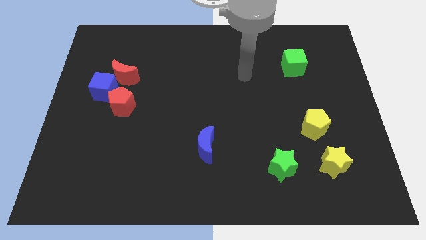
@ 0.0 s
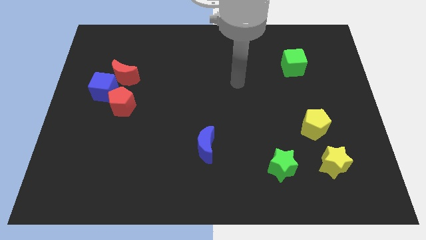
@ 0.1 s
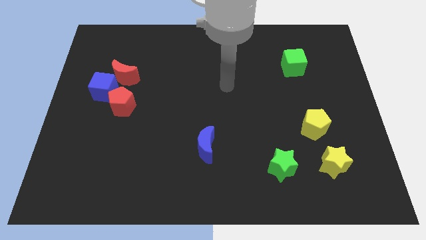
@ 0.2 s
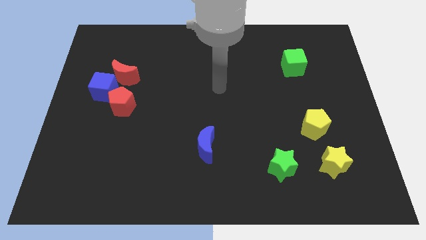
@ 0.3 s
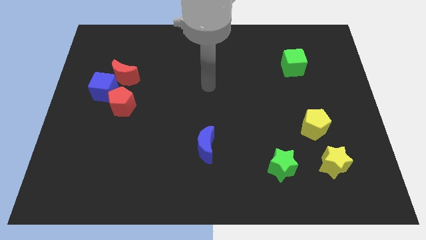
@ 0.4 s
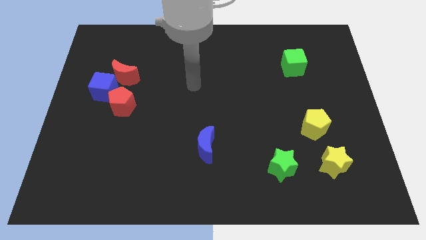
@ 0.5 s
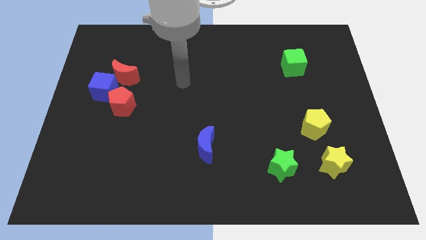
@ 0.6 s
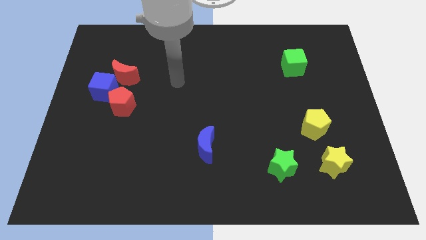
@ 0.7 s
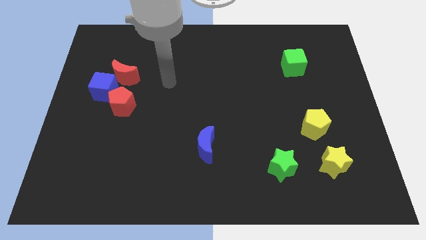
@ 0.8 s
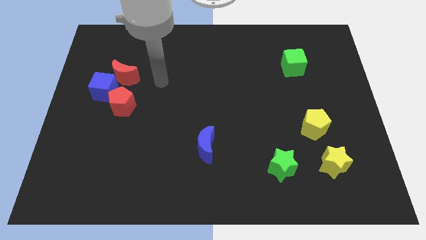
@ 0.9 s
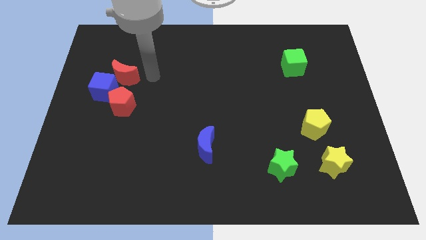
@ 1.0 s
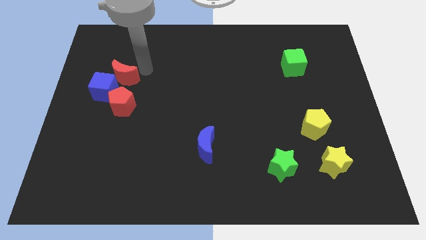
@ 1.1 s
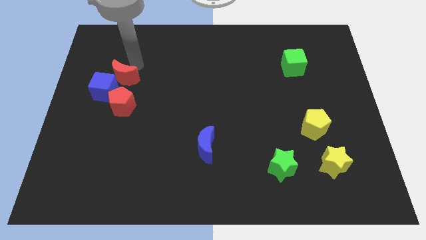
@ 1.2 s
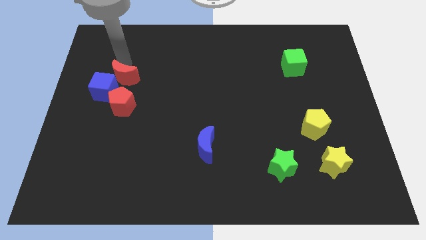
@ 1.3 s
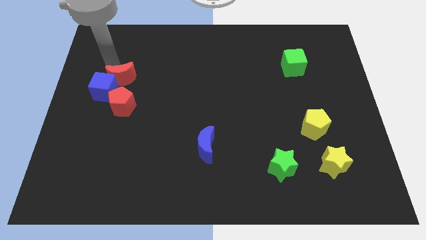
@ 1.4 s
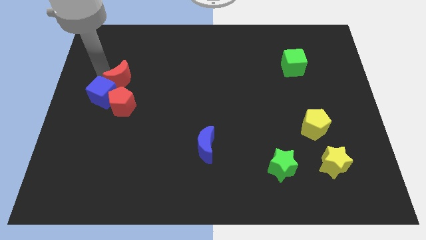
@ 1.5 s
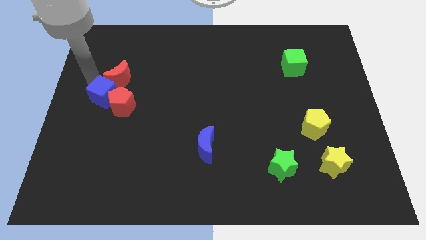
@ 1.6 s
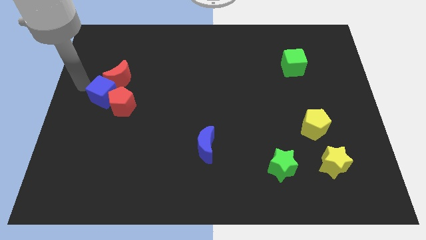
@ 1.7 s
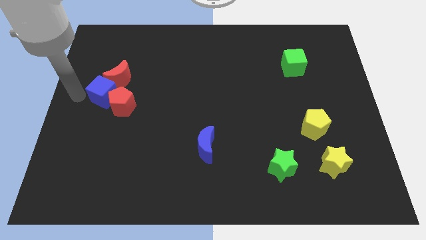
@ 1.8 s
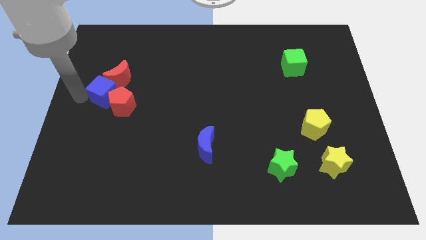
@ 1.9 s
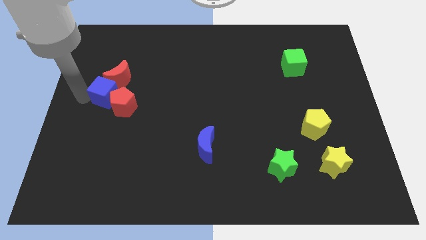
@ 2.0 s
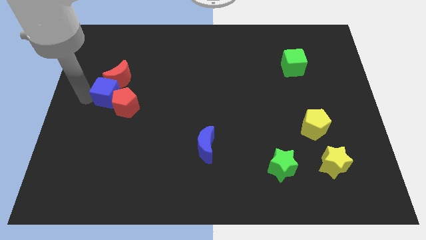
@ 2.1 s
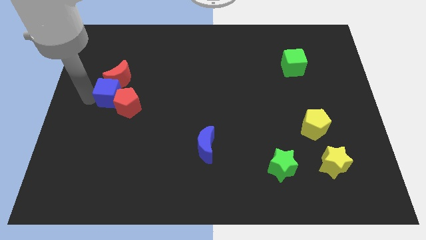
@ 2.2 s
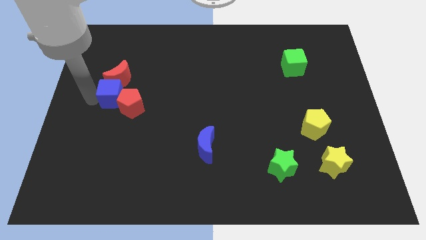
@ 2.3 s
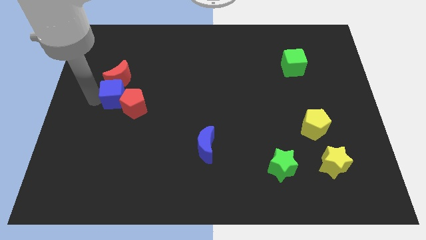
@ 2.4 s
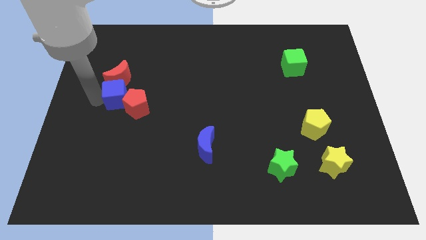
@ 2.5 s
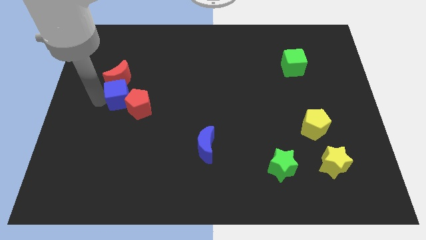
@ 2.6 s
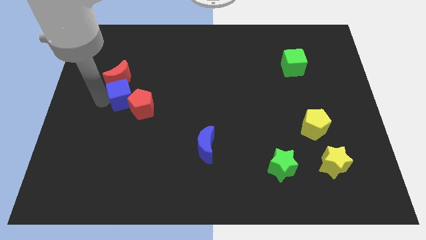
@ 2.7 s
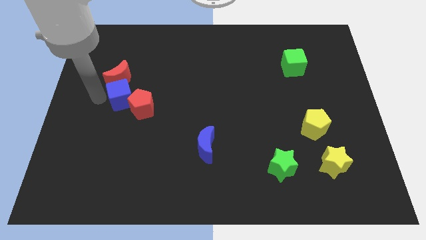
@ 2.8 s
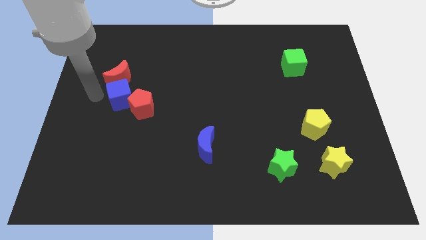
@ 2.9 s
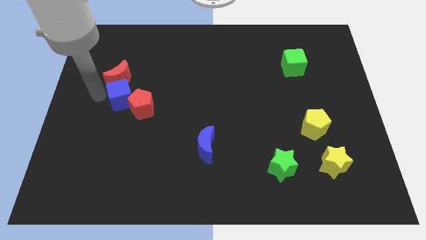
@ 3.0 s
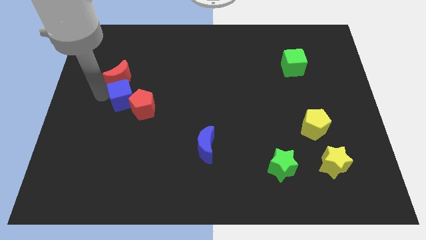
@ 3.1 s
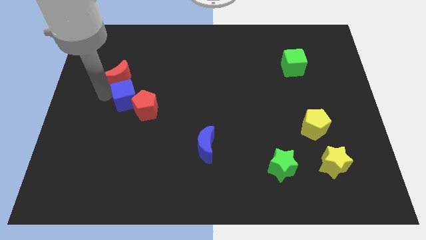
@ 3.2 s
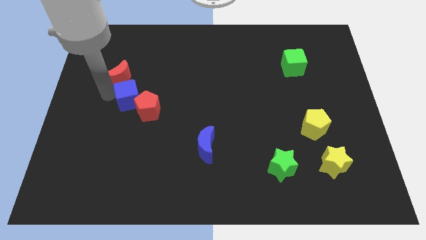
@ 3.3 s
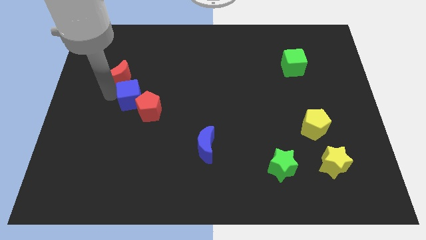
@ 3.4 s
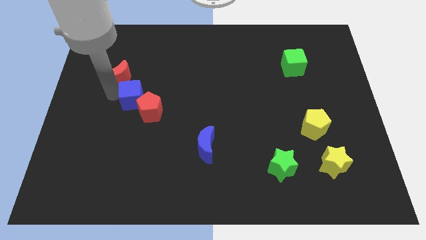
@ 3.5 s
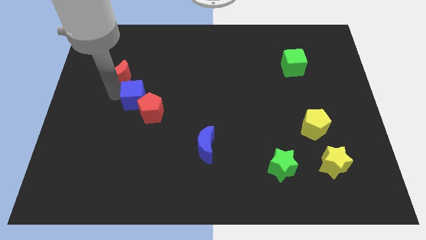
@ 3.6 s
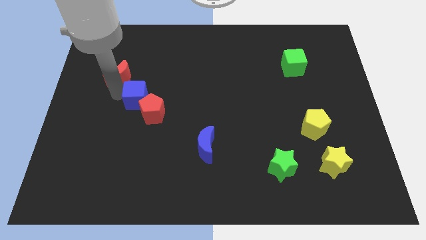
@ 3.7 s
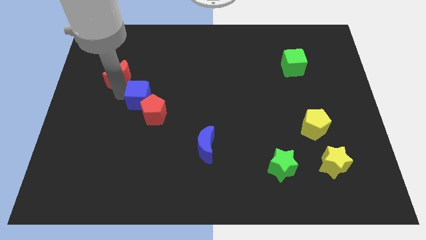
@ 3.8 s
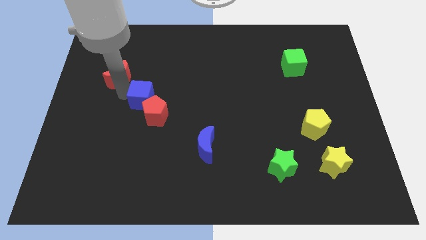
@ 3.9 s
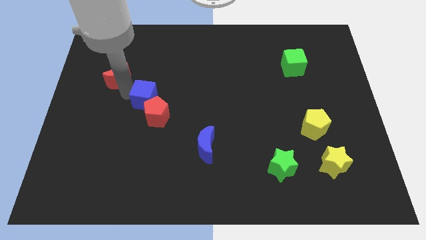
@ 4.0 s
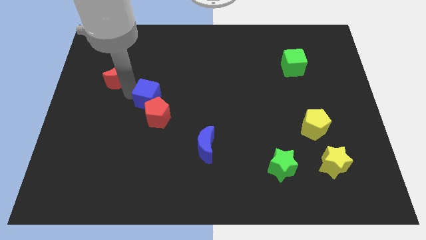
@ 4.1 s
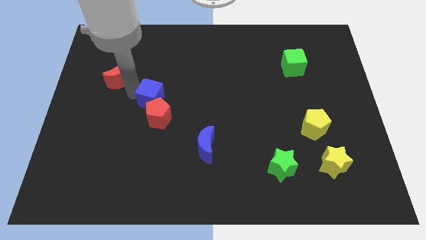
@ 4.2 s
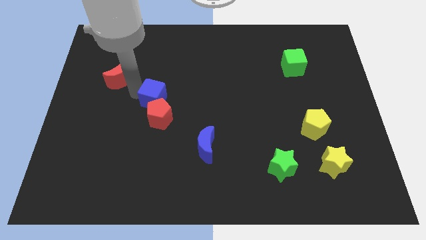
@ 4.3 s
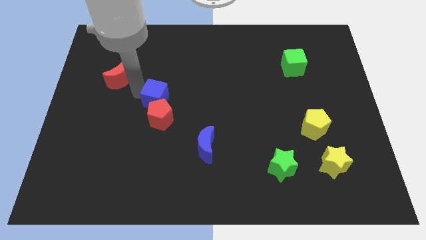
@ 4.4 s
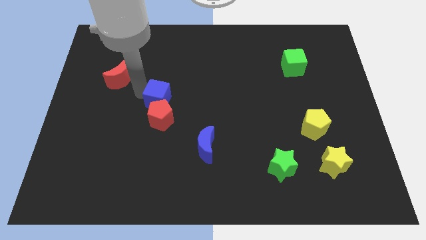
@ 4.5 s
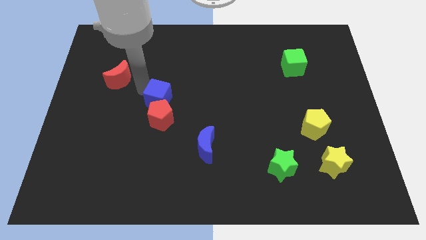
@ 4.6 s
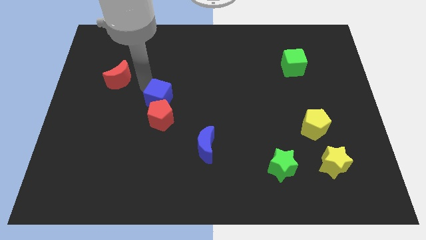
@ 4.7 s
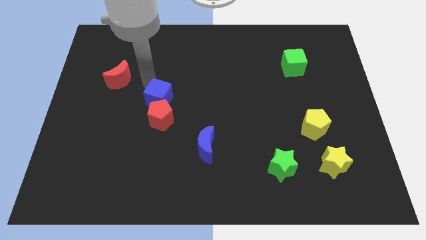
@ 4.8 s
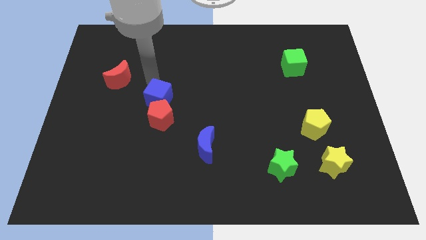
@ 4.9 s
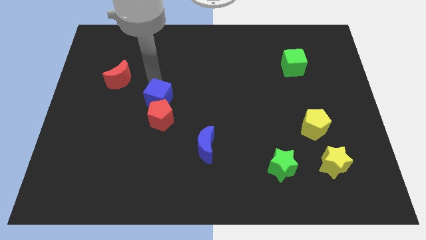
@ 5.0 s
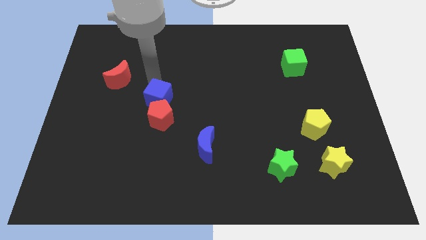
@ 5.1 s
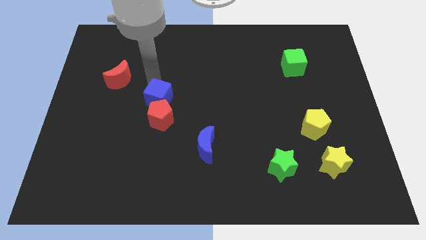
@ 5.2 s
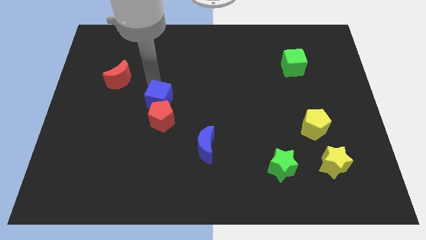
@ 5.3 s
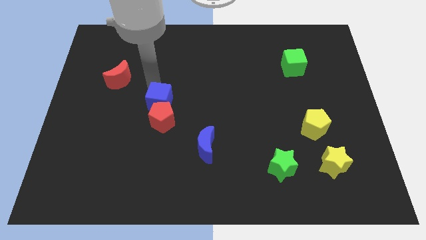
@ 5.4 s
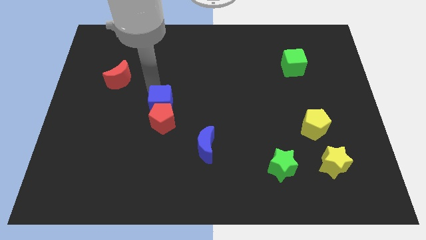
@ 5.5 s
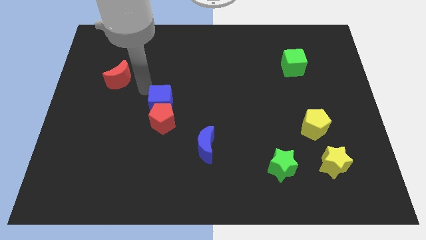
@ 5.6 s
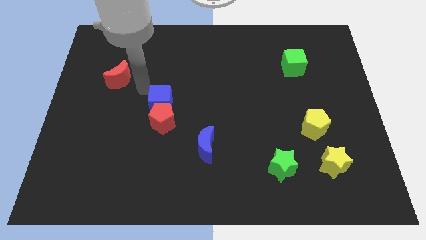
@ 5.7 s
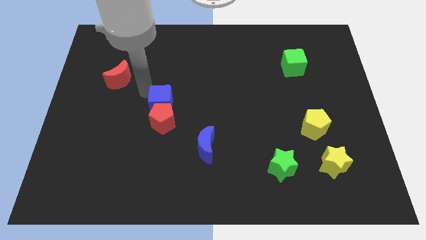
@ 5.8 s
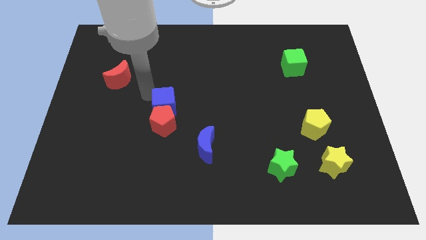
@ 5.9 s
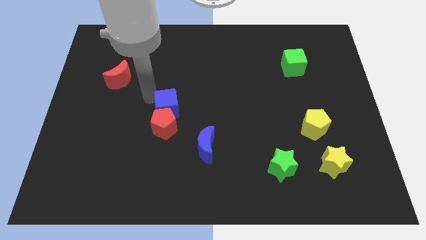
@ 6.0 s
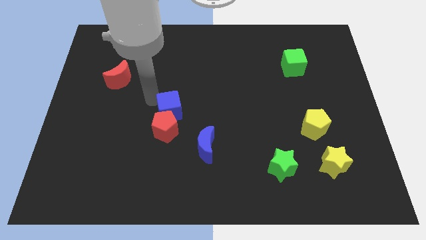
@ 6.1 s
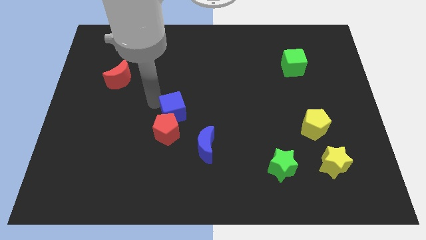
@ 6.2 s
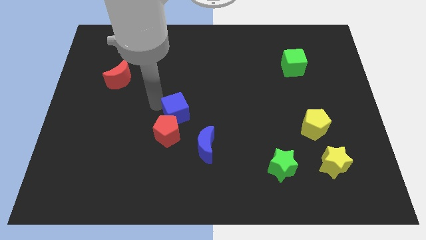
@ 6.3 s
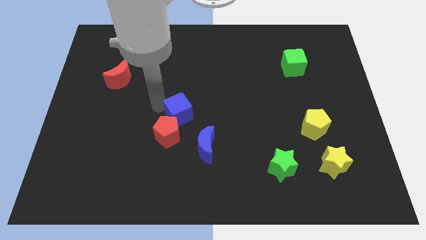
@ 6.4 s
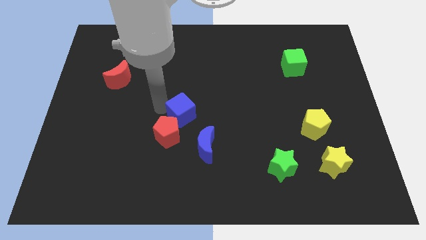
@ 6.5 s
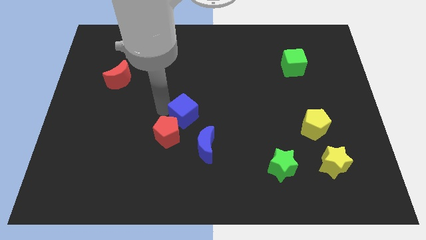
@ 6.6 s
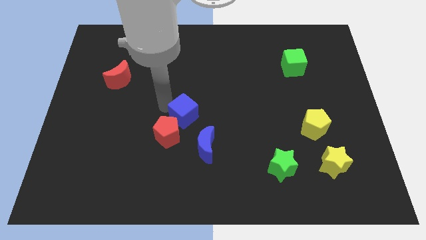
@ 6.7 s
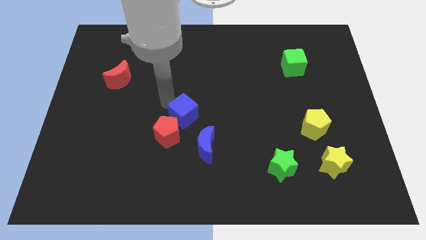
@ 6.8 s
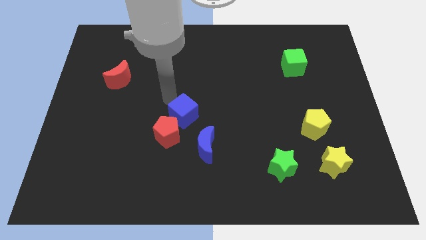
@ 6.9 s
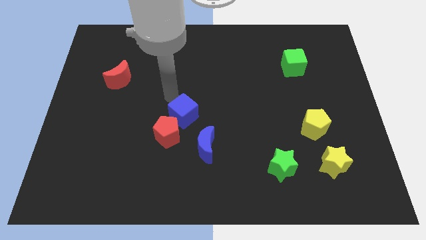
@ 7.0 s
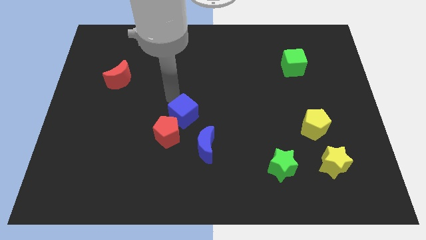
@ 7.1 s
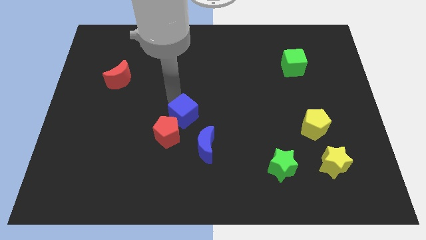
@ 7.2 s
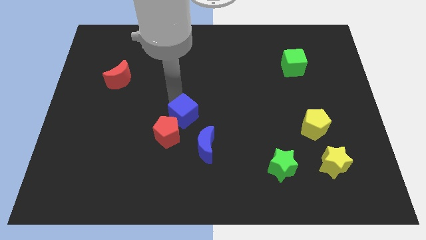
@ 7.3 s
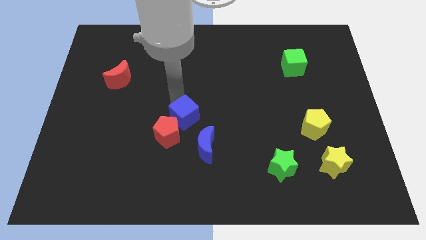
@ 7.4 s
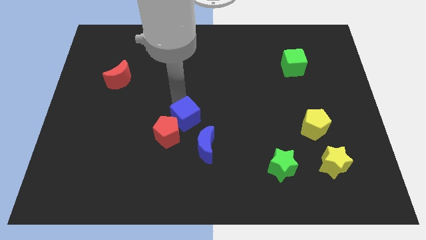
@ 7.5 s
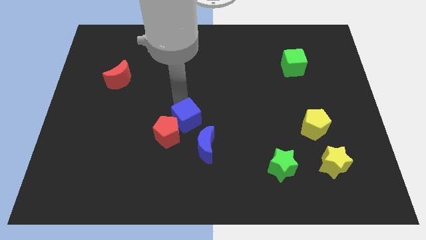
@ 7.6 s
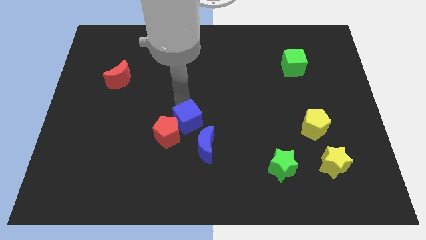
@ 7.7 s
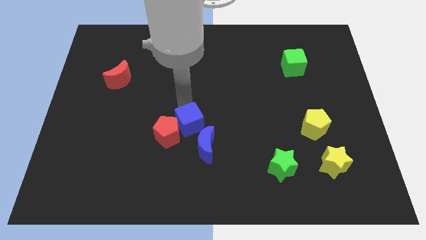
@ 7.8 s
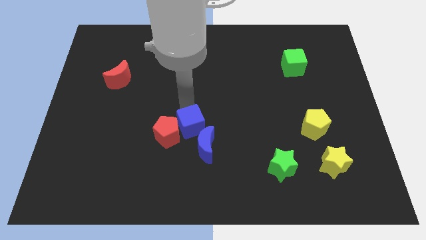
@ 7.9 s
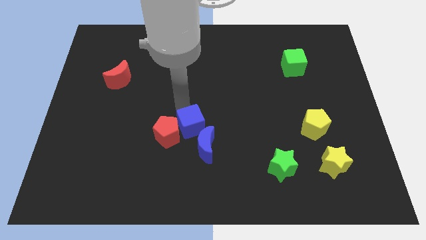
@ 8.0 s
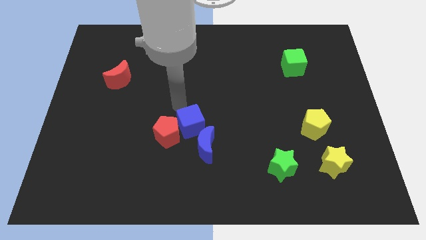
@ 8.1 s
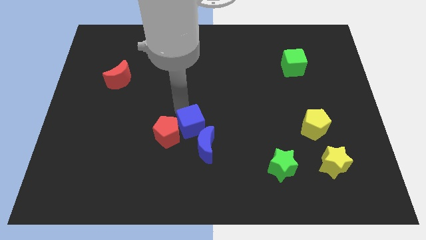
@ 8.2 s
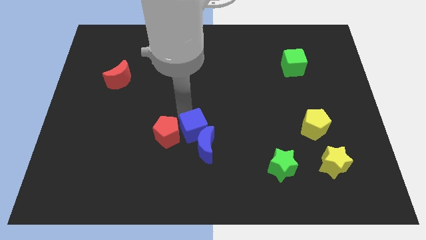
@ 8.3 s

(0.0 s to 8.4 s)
put the blue cube next to the blue moon
